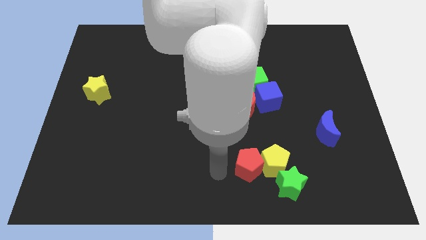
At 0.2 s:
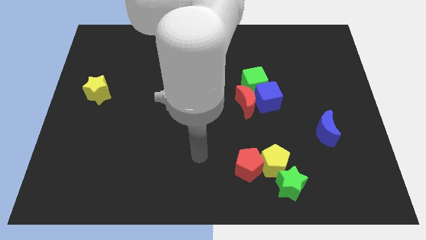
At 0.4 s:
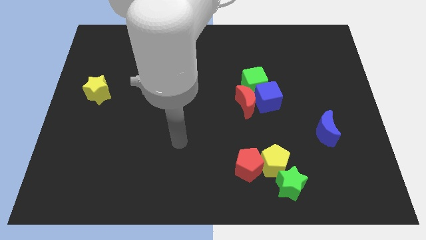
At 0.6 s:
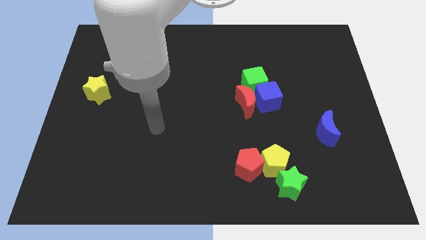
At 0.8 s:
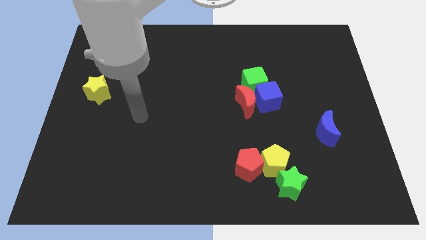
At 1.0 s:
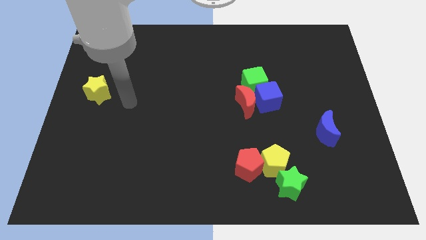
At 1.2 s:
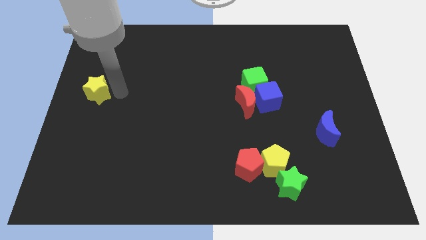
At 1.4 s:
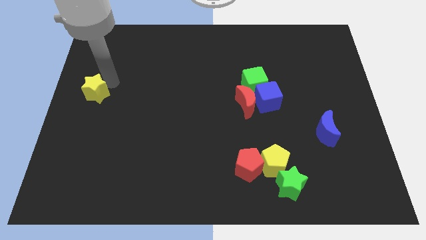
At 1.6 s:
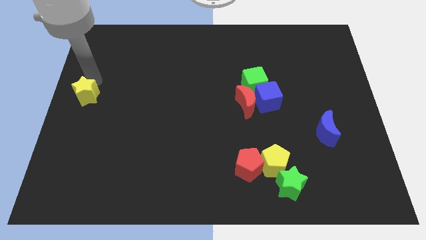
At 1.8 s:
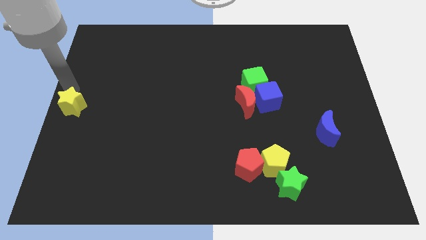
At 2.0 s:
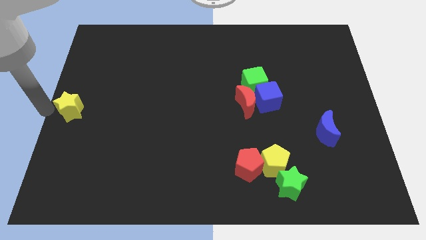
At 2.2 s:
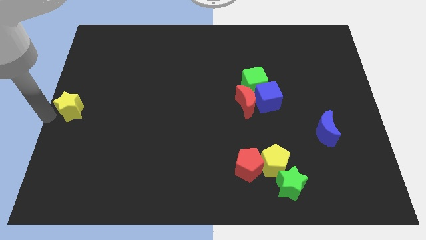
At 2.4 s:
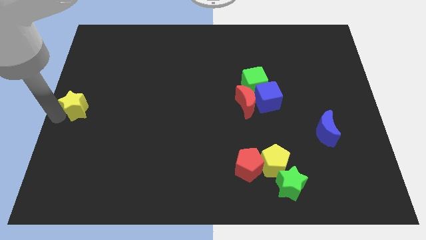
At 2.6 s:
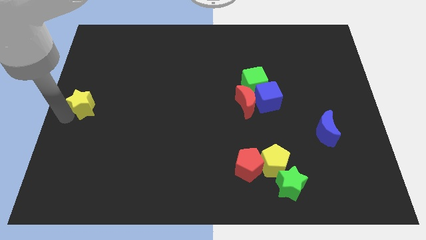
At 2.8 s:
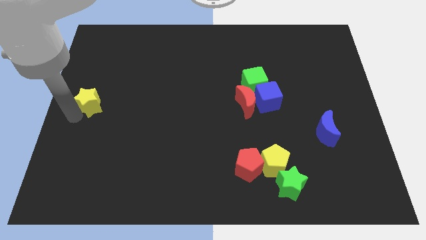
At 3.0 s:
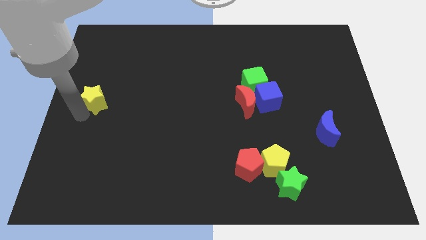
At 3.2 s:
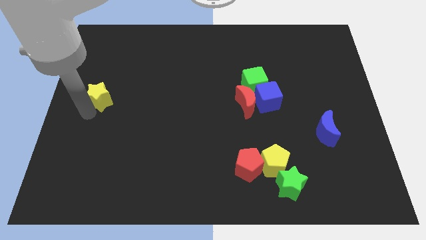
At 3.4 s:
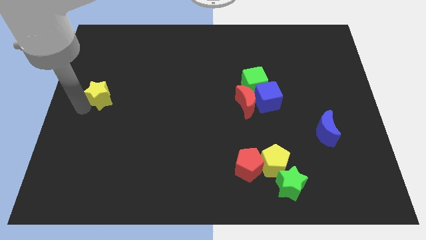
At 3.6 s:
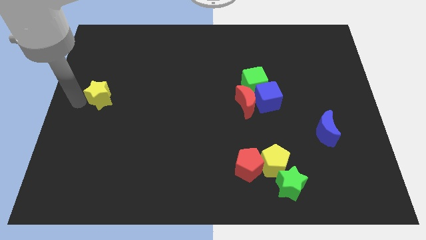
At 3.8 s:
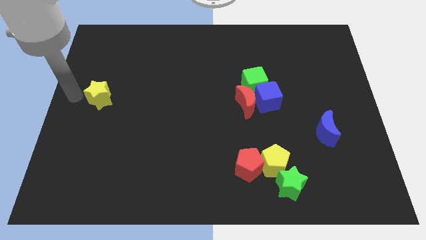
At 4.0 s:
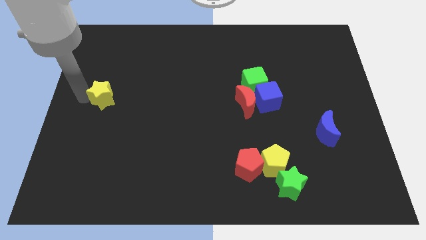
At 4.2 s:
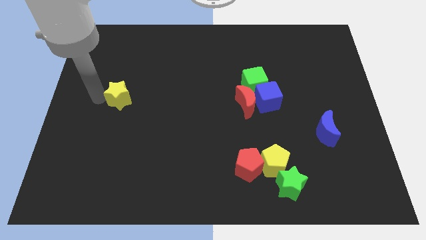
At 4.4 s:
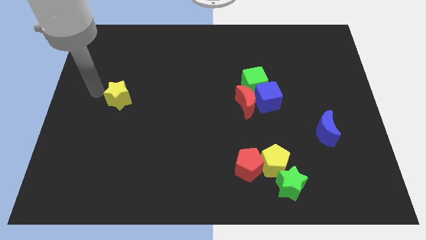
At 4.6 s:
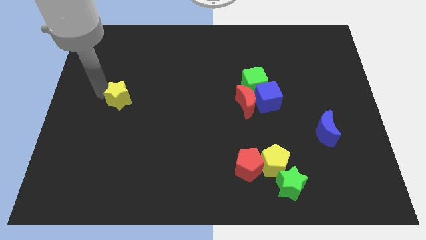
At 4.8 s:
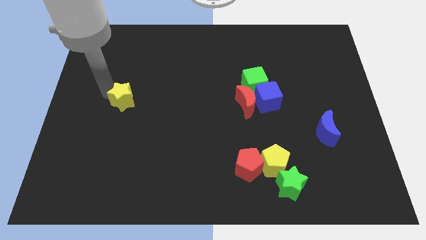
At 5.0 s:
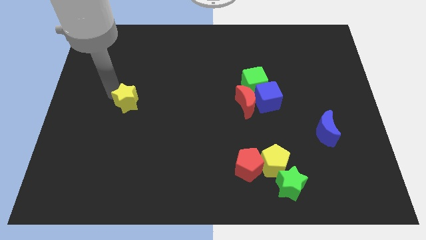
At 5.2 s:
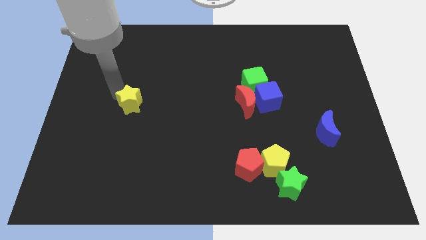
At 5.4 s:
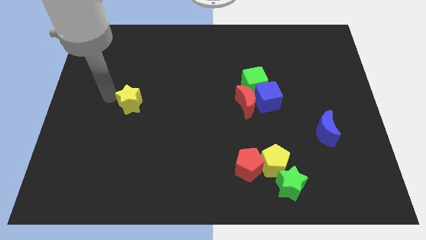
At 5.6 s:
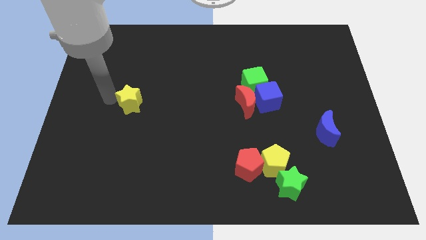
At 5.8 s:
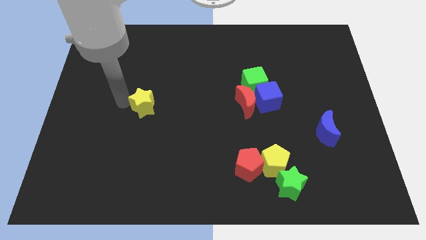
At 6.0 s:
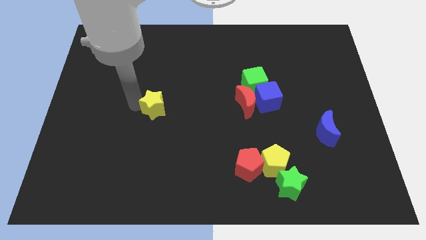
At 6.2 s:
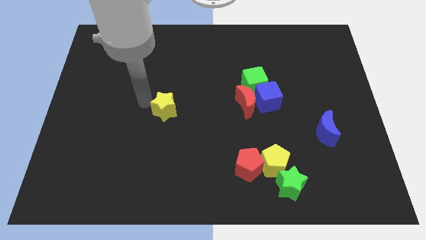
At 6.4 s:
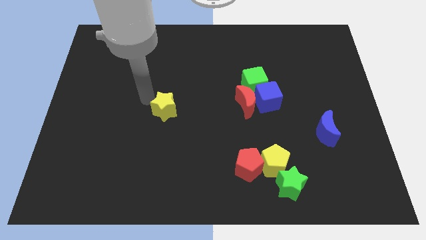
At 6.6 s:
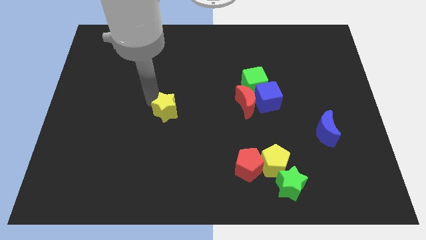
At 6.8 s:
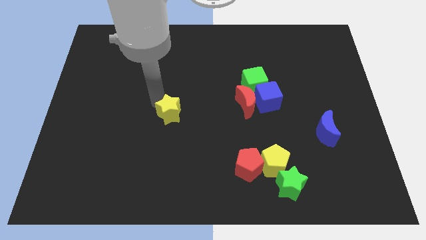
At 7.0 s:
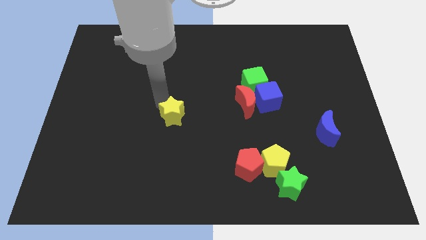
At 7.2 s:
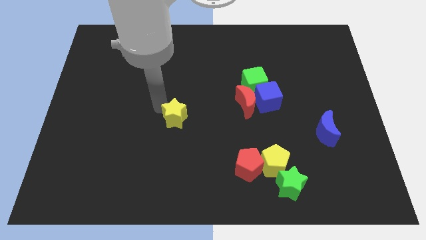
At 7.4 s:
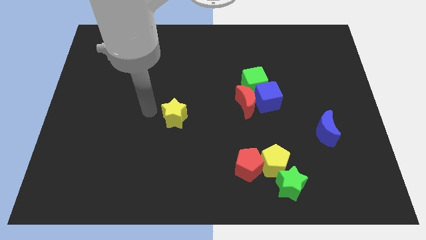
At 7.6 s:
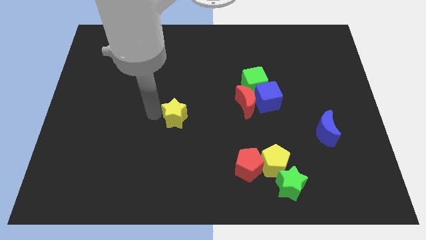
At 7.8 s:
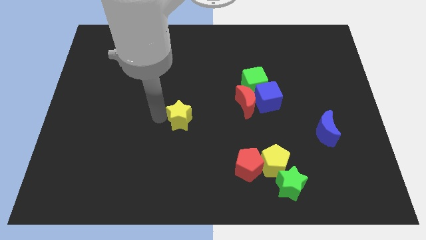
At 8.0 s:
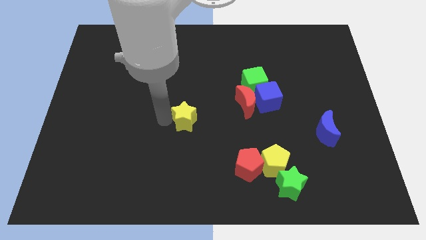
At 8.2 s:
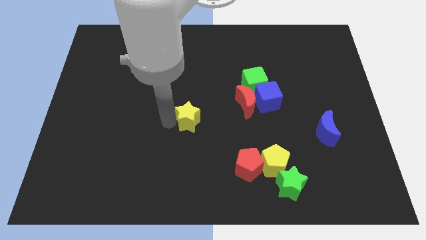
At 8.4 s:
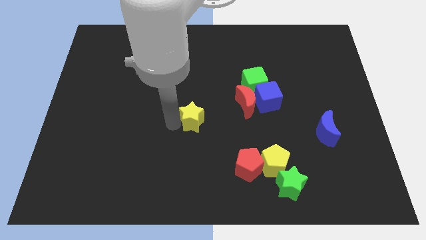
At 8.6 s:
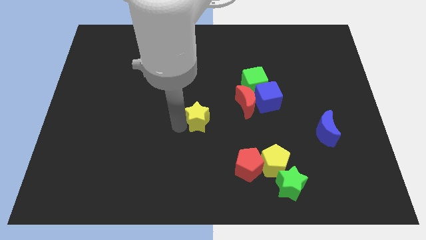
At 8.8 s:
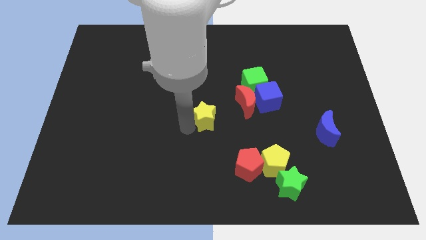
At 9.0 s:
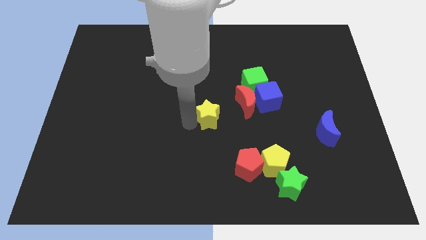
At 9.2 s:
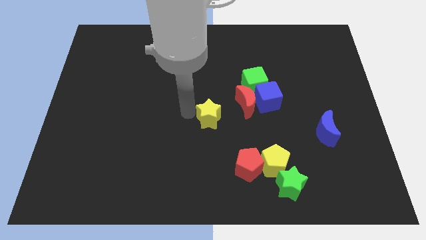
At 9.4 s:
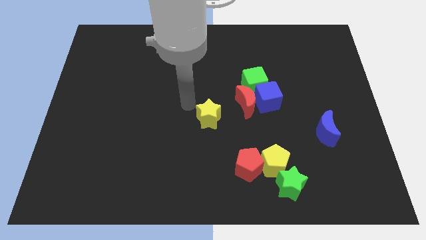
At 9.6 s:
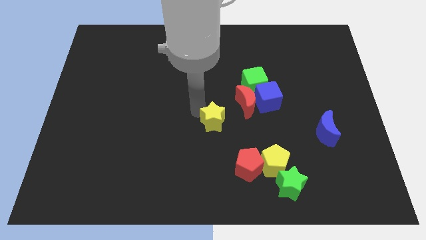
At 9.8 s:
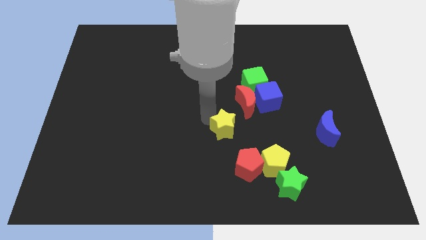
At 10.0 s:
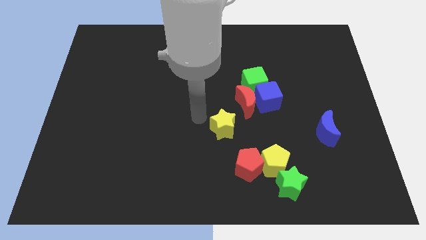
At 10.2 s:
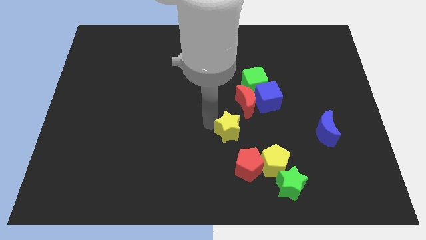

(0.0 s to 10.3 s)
slide the yellow star to the bottom of the red moon

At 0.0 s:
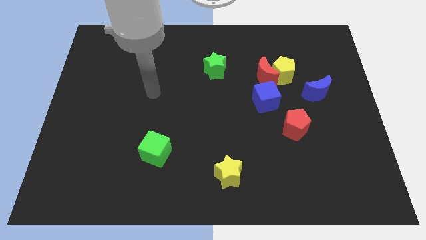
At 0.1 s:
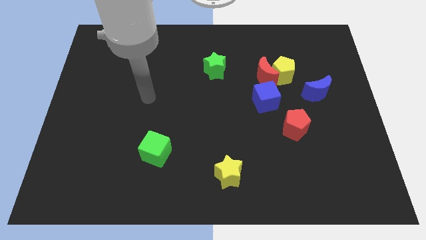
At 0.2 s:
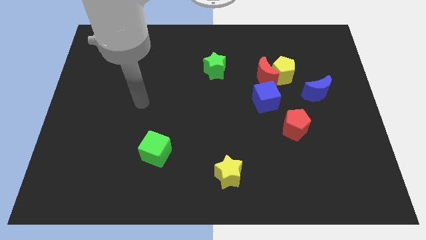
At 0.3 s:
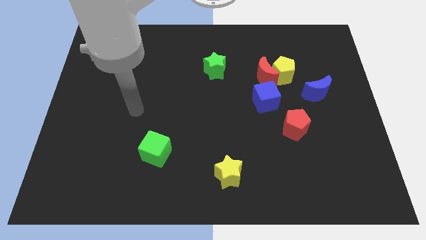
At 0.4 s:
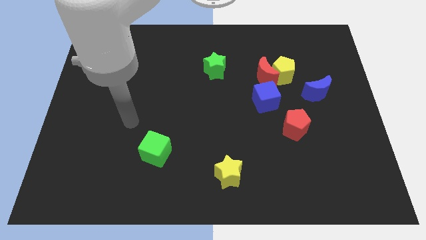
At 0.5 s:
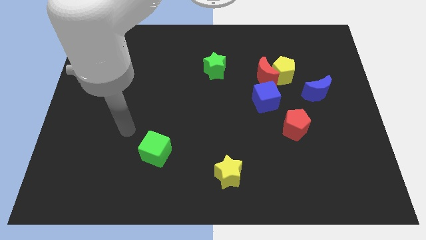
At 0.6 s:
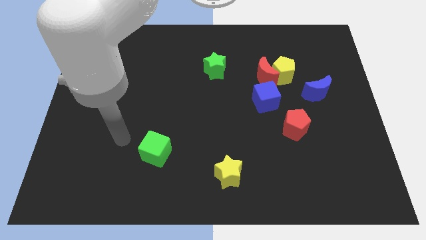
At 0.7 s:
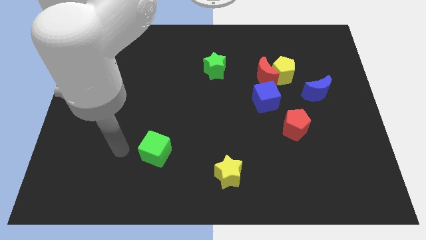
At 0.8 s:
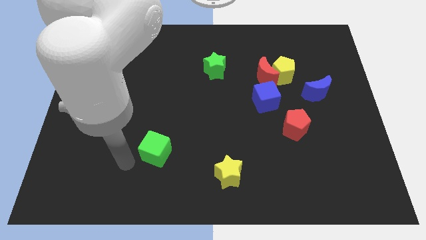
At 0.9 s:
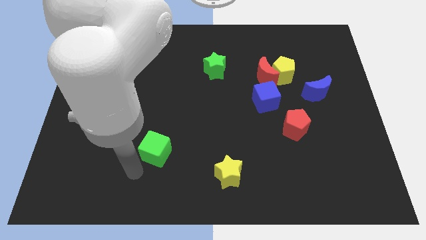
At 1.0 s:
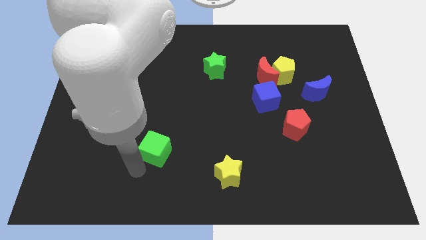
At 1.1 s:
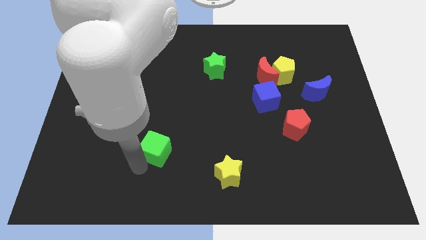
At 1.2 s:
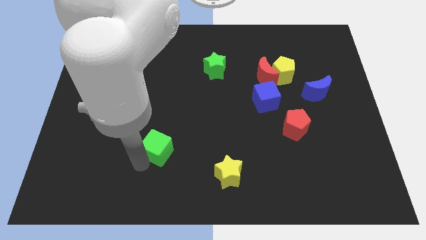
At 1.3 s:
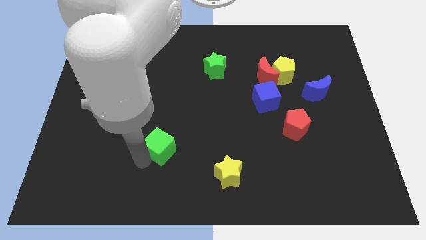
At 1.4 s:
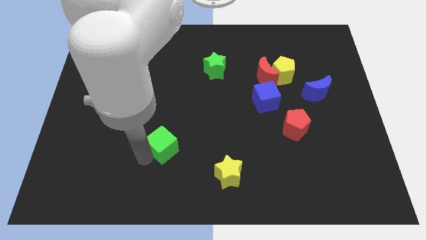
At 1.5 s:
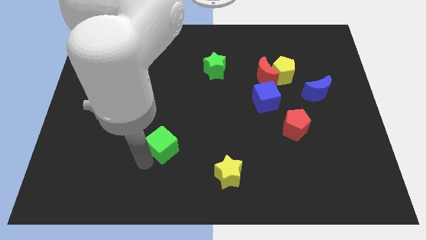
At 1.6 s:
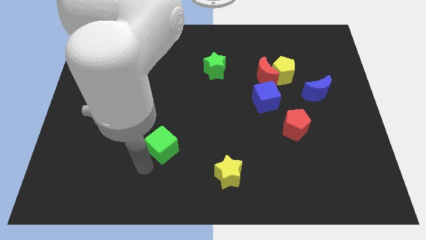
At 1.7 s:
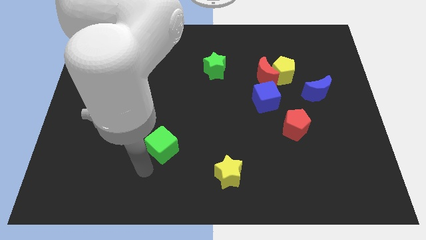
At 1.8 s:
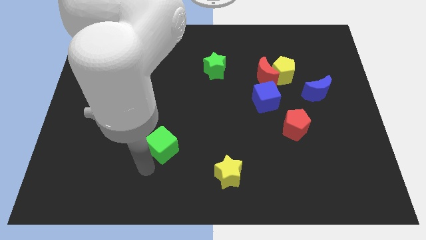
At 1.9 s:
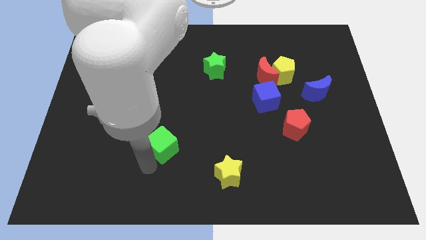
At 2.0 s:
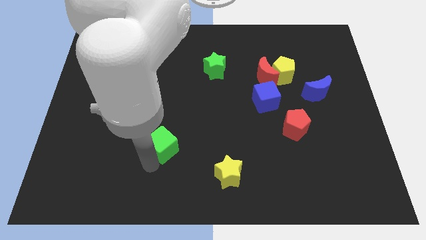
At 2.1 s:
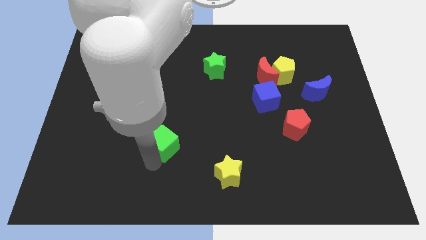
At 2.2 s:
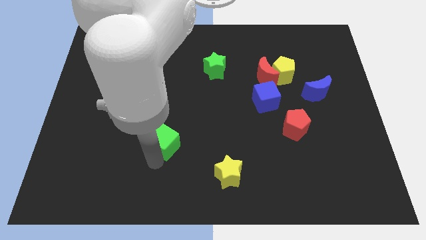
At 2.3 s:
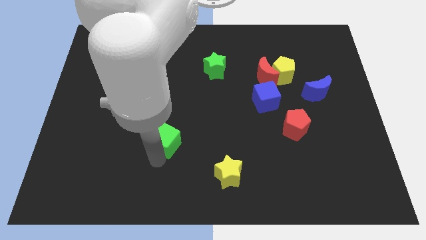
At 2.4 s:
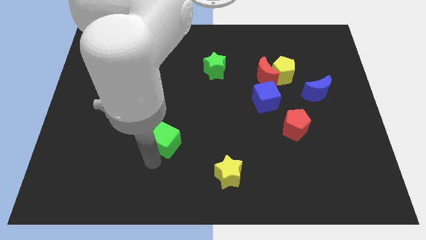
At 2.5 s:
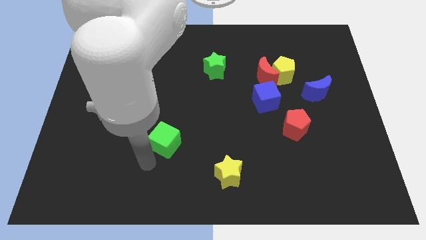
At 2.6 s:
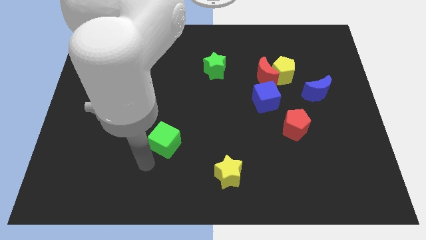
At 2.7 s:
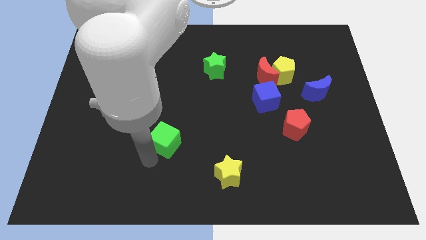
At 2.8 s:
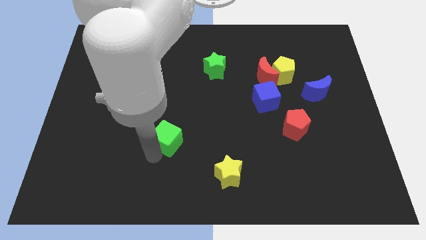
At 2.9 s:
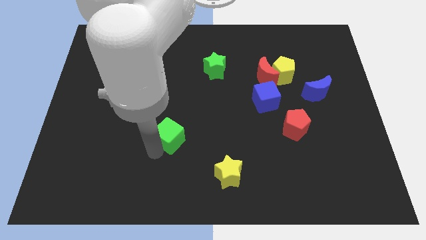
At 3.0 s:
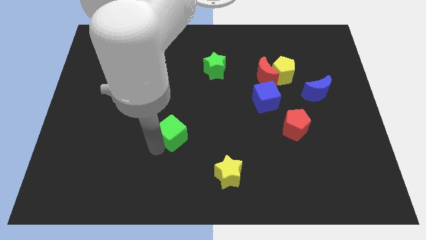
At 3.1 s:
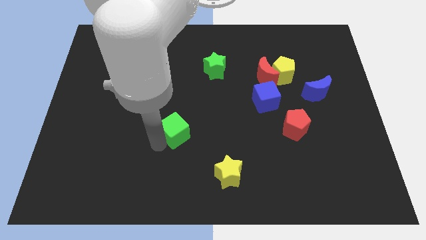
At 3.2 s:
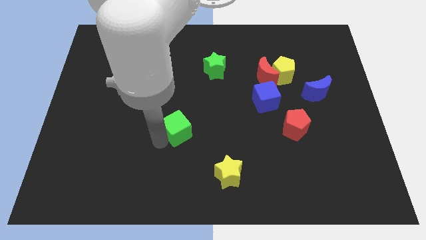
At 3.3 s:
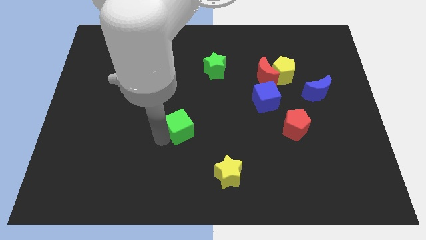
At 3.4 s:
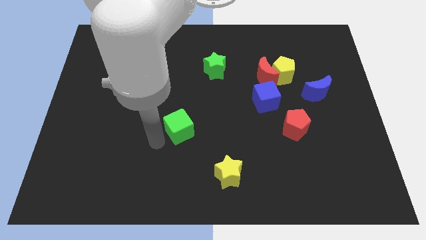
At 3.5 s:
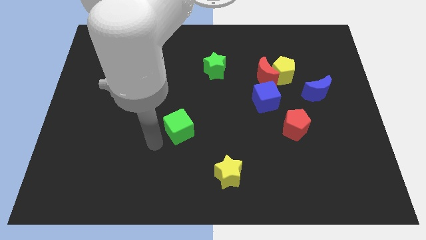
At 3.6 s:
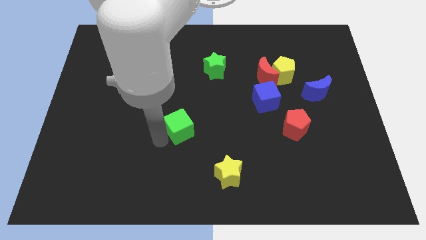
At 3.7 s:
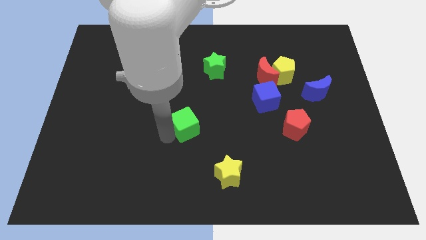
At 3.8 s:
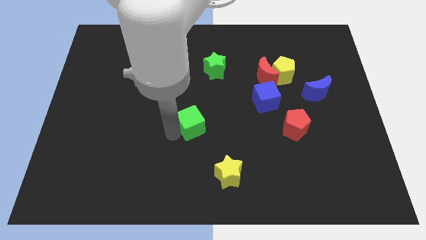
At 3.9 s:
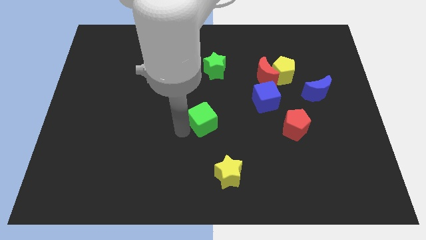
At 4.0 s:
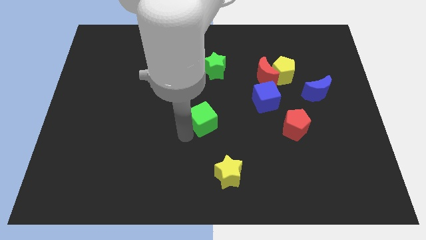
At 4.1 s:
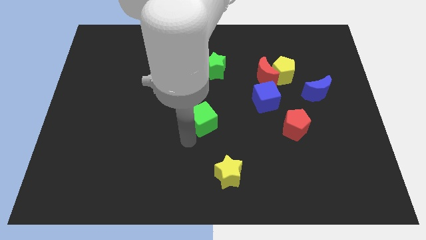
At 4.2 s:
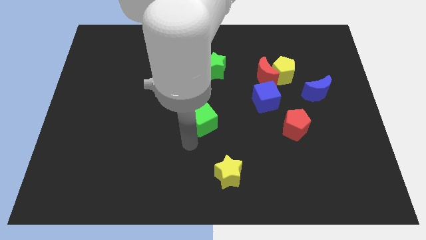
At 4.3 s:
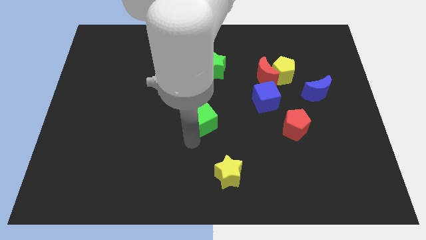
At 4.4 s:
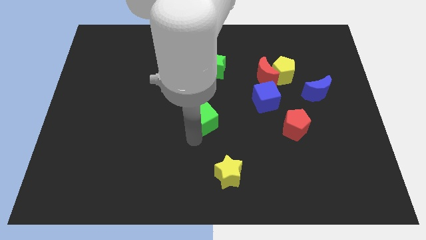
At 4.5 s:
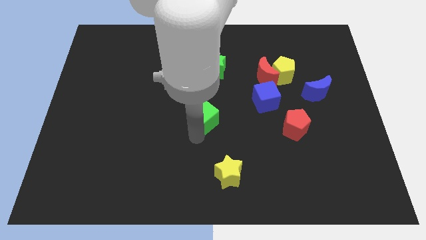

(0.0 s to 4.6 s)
slide the green cube below the green star
